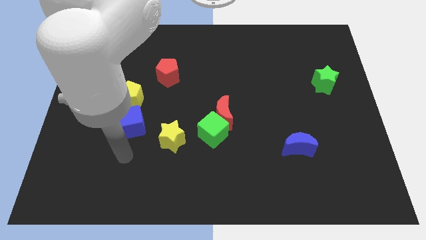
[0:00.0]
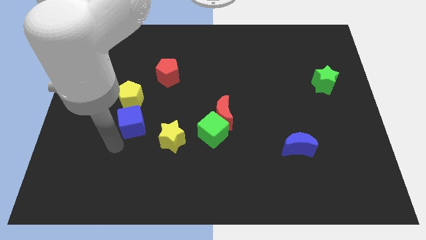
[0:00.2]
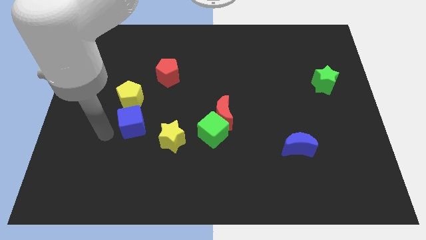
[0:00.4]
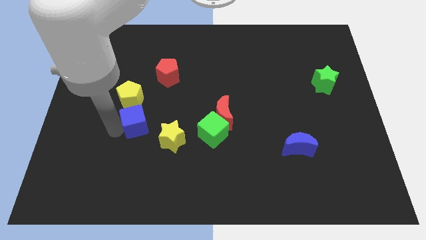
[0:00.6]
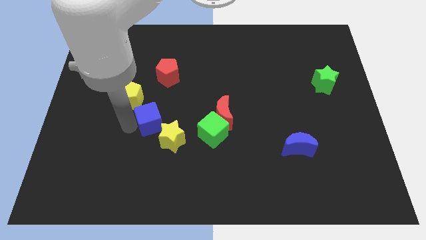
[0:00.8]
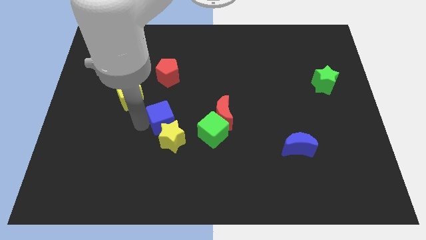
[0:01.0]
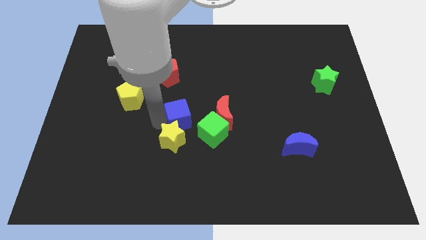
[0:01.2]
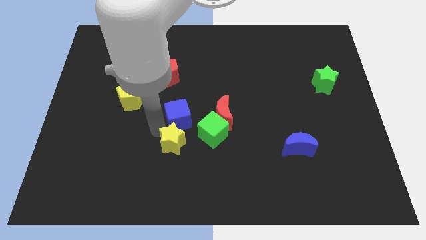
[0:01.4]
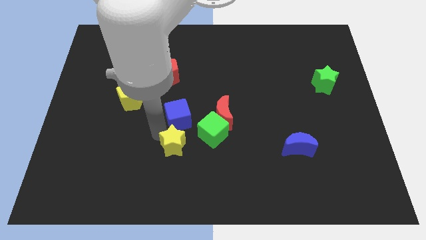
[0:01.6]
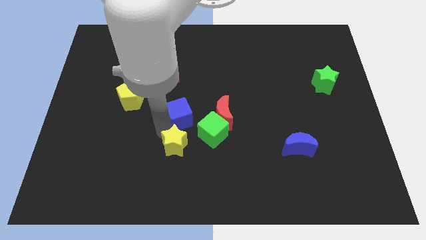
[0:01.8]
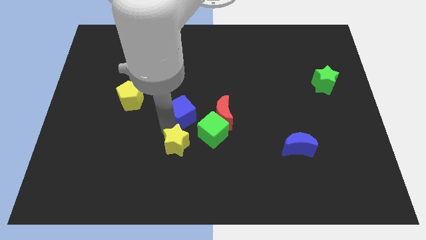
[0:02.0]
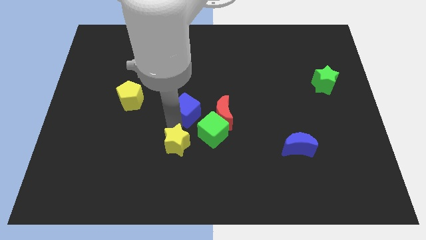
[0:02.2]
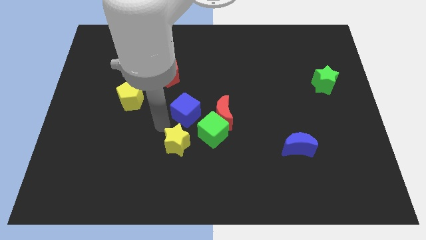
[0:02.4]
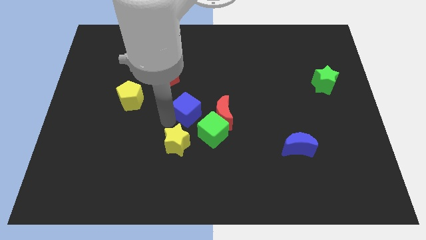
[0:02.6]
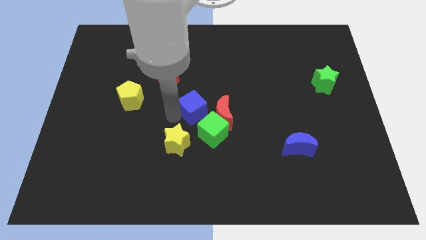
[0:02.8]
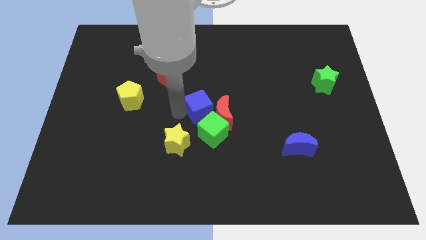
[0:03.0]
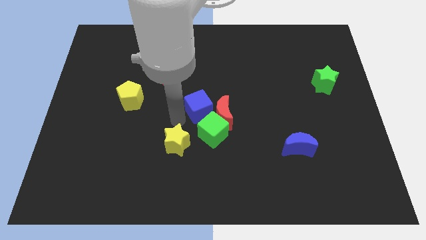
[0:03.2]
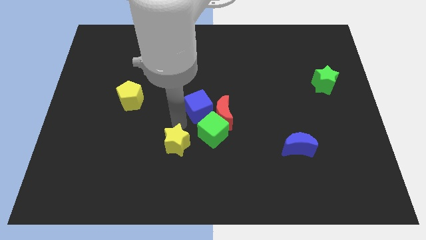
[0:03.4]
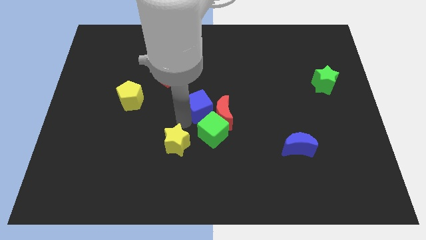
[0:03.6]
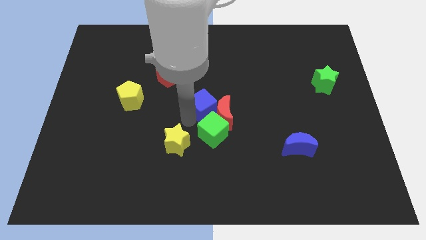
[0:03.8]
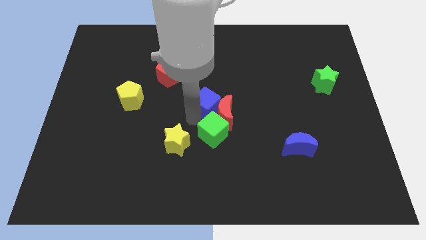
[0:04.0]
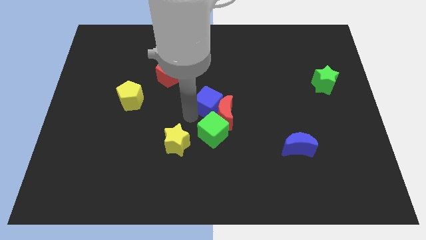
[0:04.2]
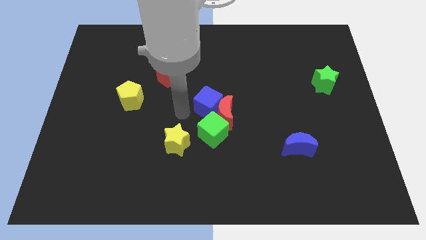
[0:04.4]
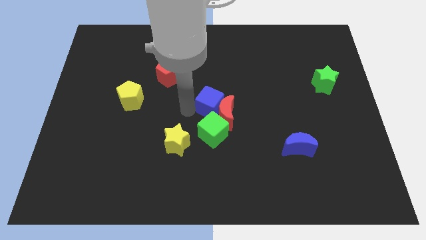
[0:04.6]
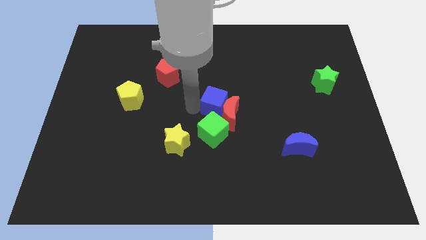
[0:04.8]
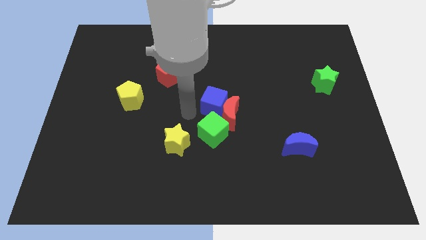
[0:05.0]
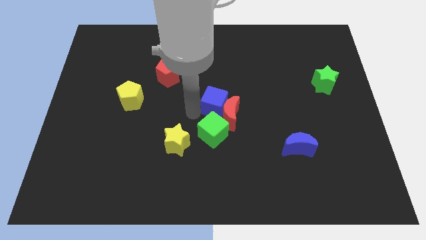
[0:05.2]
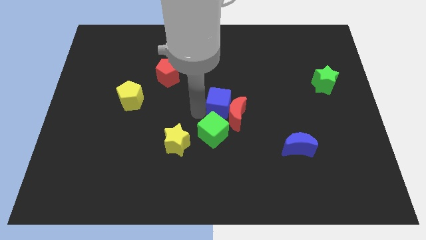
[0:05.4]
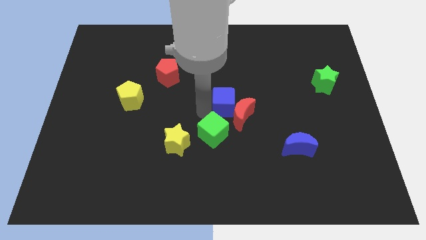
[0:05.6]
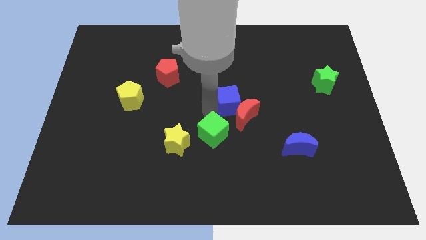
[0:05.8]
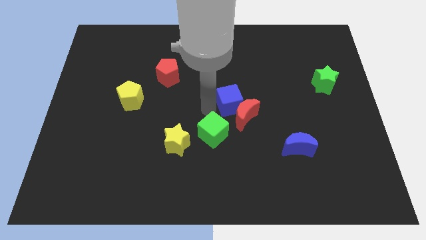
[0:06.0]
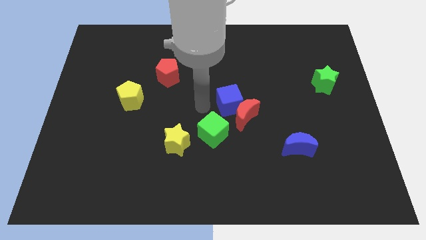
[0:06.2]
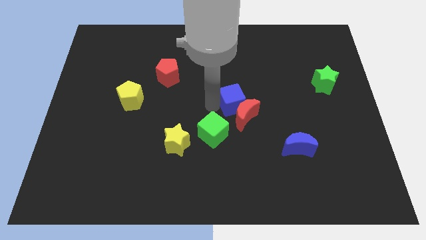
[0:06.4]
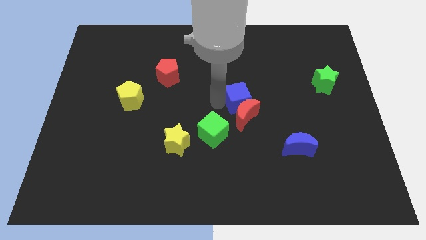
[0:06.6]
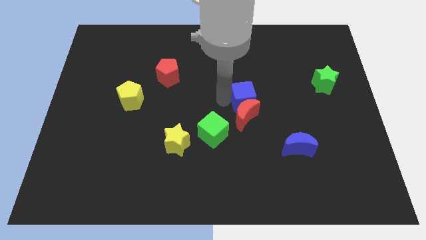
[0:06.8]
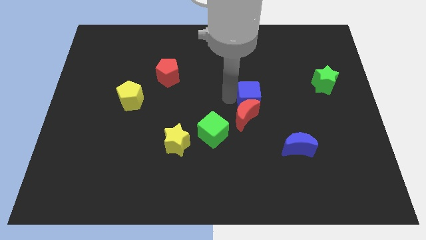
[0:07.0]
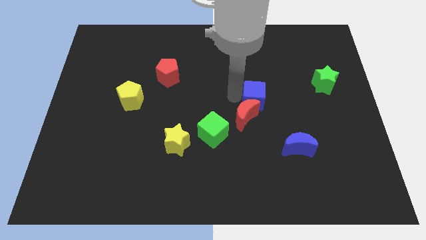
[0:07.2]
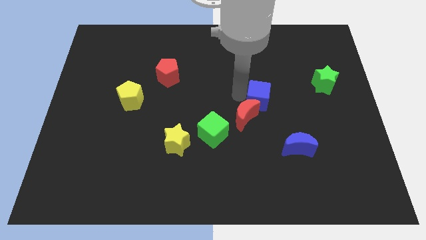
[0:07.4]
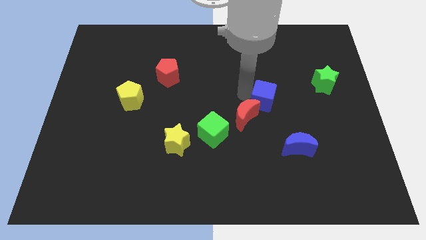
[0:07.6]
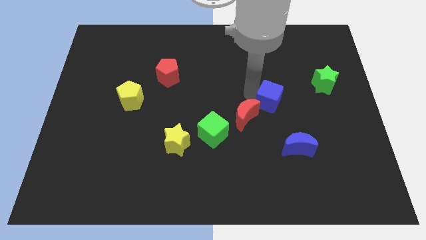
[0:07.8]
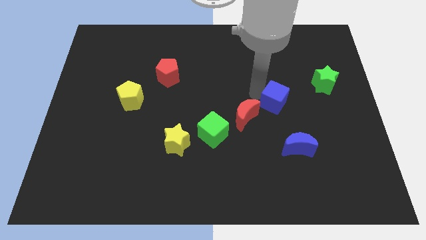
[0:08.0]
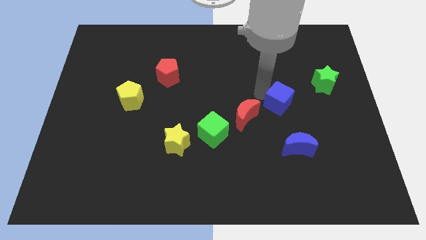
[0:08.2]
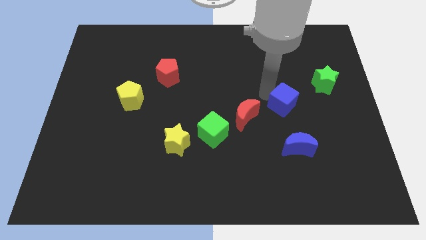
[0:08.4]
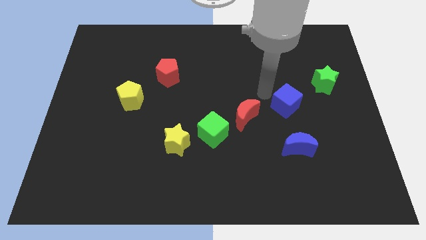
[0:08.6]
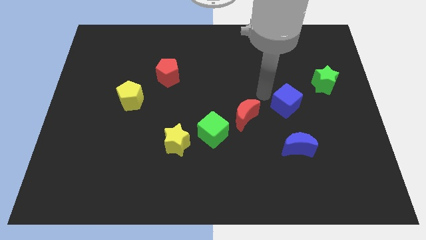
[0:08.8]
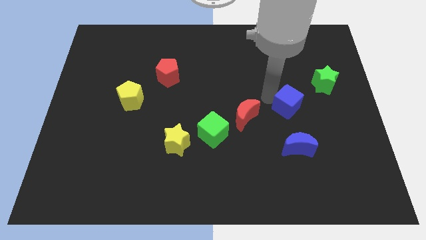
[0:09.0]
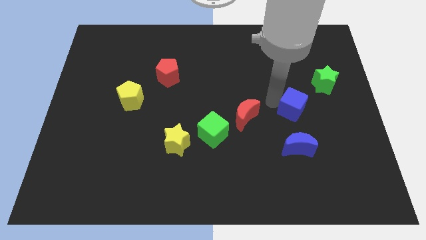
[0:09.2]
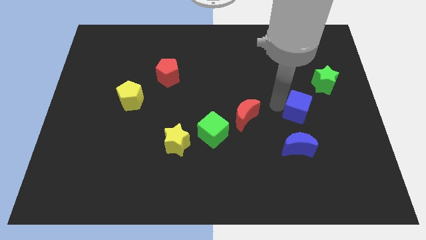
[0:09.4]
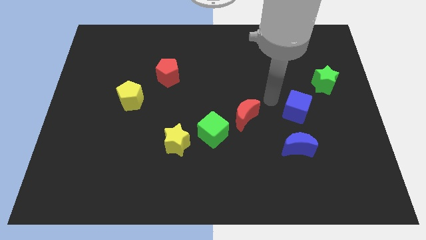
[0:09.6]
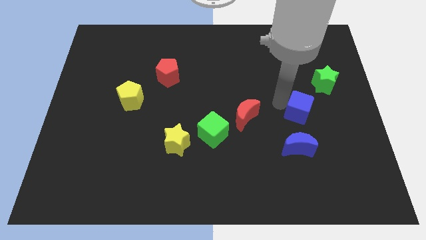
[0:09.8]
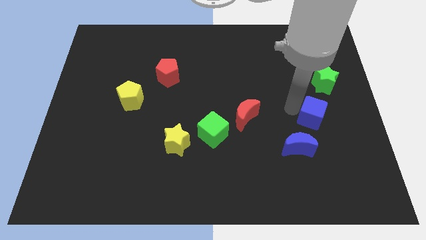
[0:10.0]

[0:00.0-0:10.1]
move the blue cube below the green star

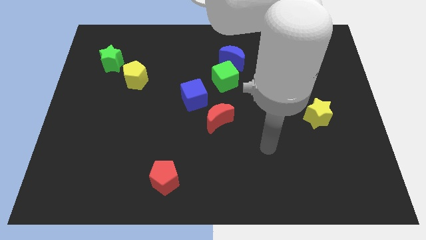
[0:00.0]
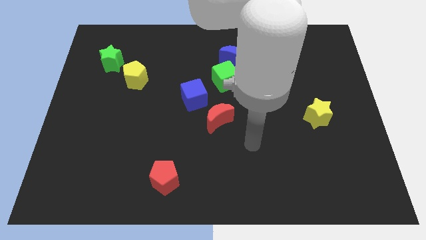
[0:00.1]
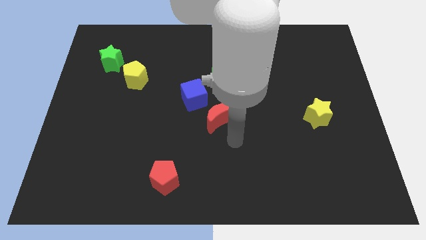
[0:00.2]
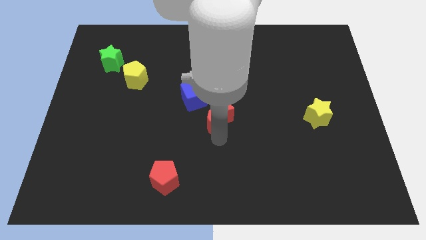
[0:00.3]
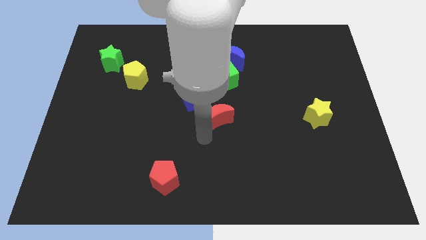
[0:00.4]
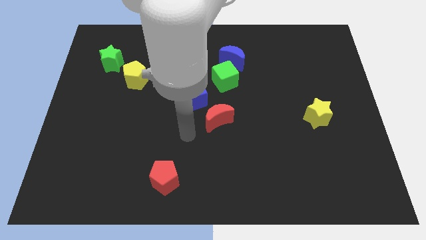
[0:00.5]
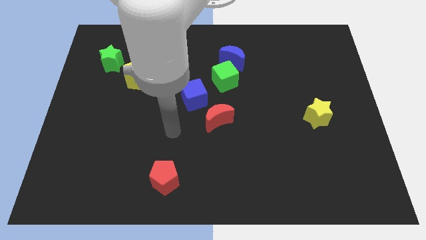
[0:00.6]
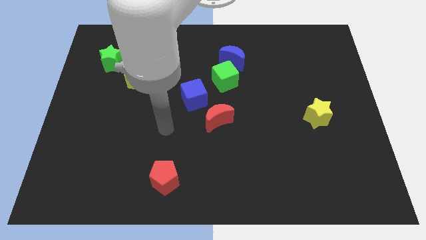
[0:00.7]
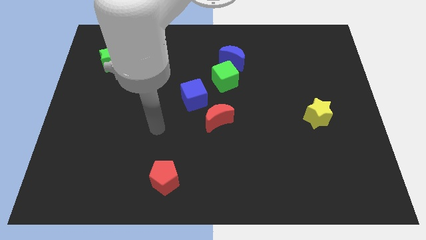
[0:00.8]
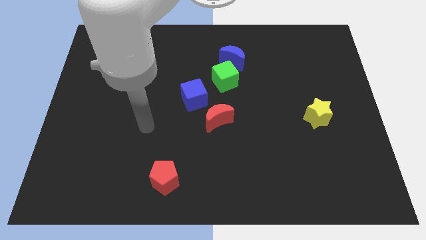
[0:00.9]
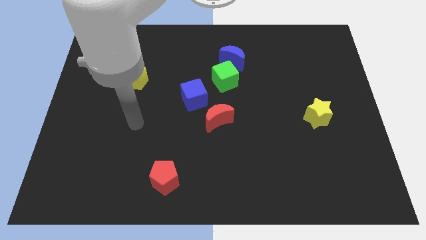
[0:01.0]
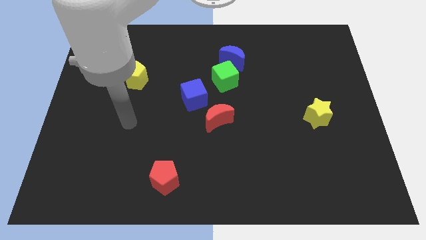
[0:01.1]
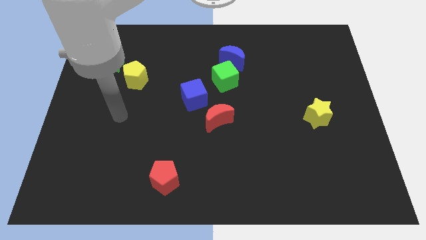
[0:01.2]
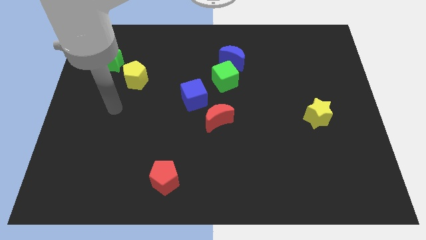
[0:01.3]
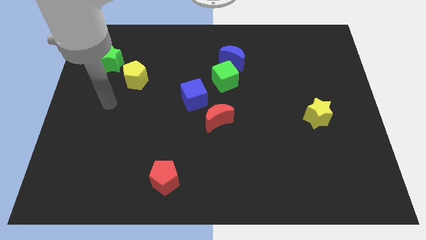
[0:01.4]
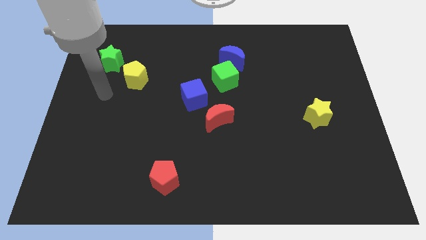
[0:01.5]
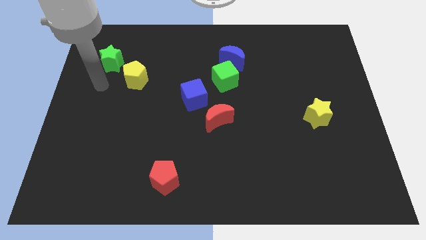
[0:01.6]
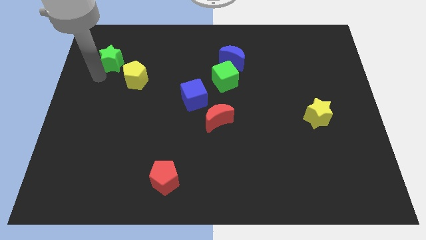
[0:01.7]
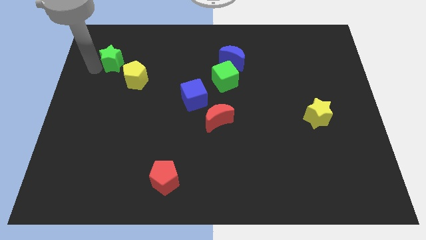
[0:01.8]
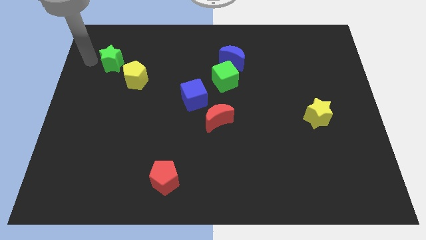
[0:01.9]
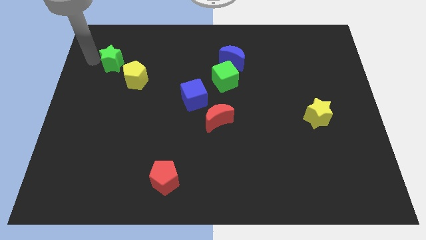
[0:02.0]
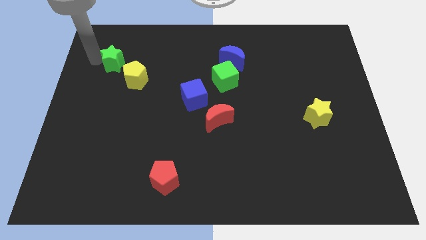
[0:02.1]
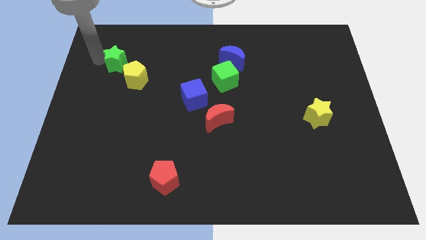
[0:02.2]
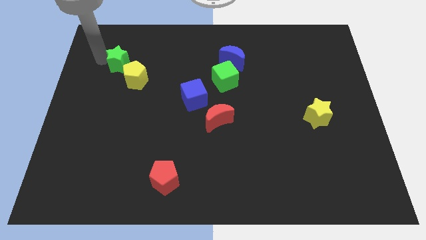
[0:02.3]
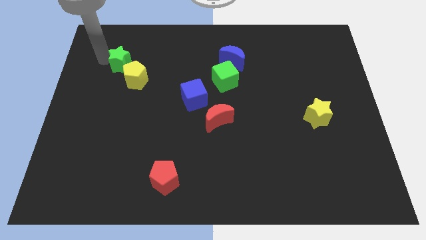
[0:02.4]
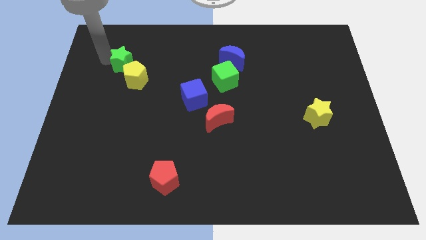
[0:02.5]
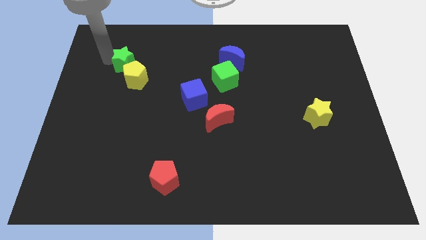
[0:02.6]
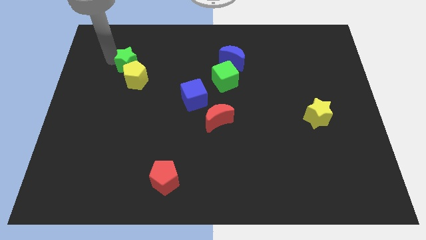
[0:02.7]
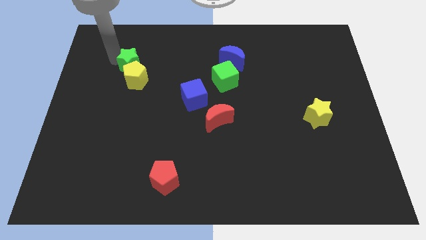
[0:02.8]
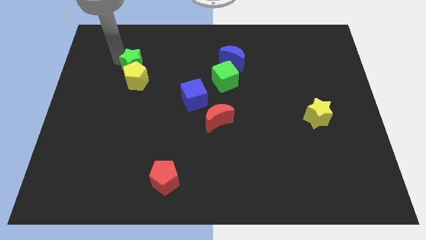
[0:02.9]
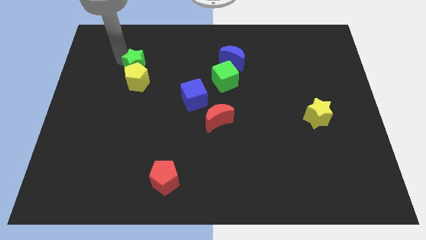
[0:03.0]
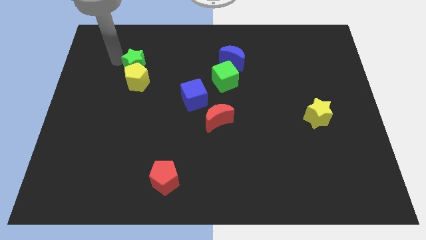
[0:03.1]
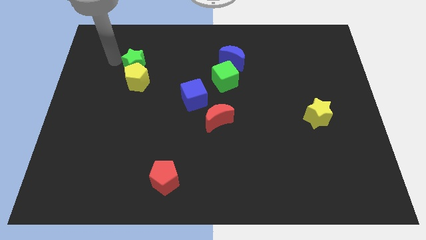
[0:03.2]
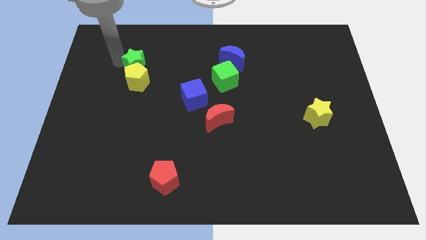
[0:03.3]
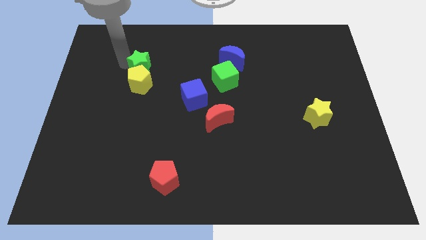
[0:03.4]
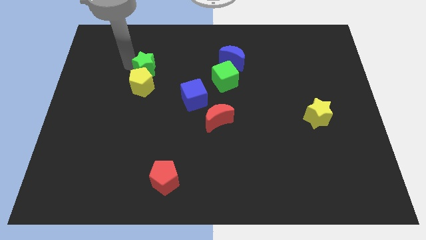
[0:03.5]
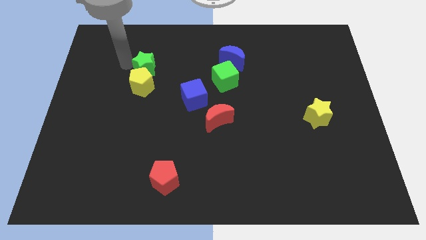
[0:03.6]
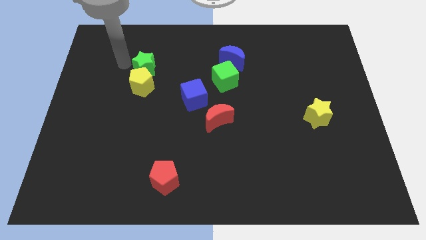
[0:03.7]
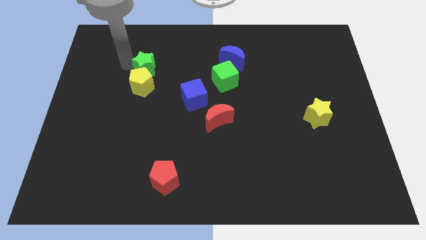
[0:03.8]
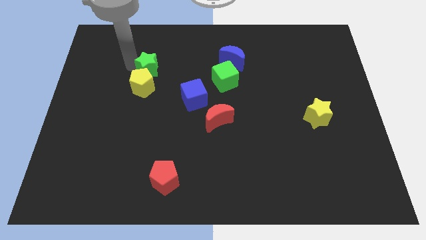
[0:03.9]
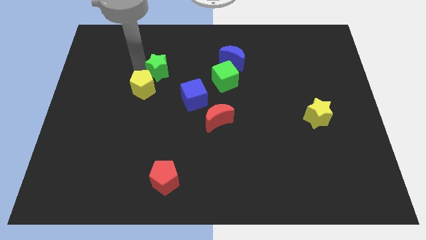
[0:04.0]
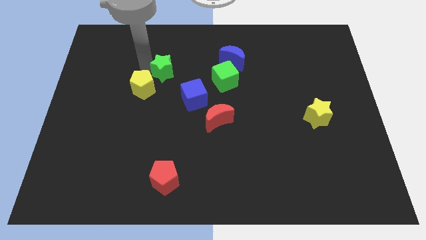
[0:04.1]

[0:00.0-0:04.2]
put the green star just left of the green cube
